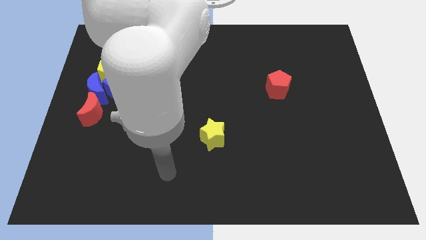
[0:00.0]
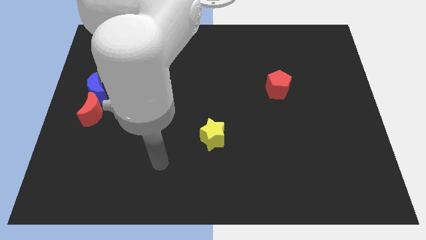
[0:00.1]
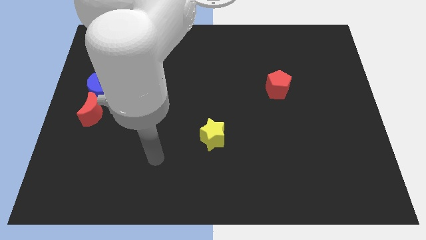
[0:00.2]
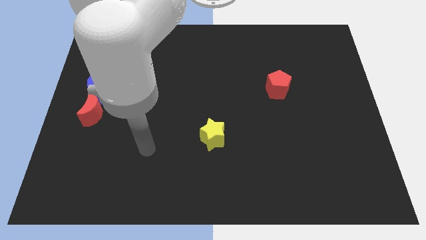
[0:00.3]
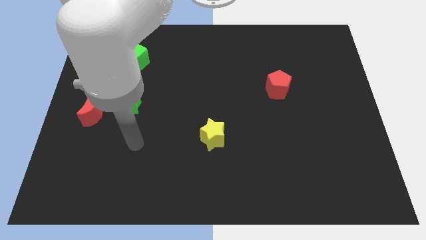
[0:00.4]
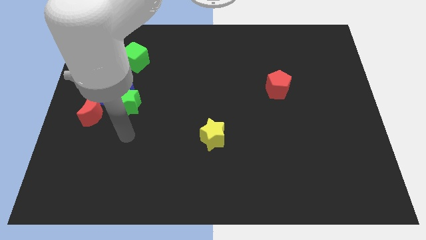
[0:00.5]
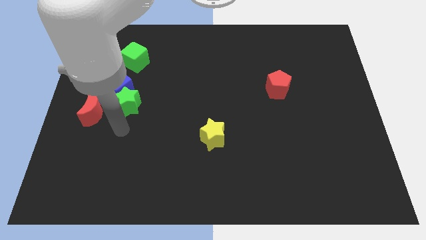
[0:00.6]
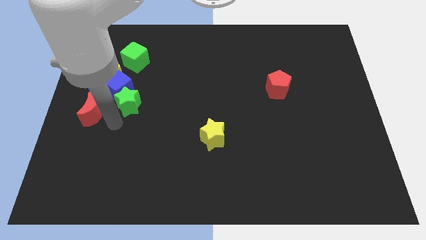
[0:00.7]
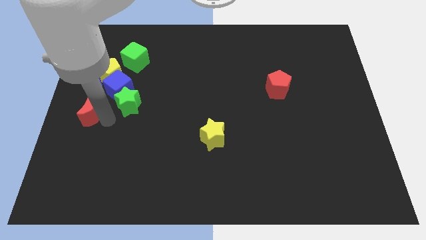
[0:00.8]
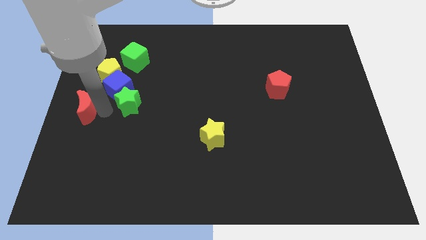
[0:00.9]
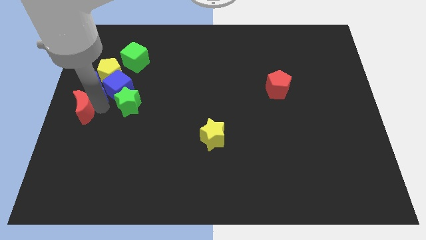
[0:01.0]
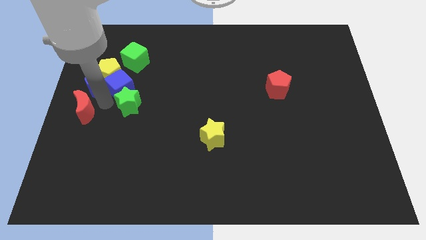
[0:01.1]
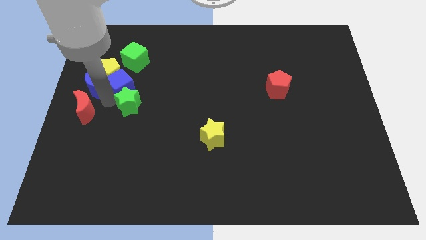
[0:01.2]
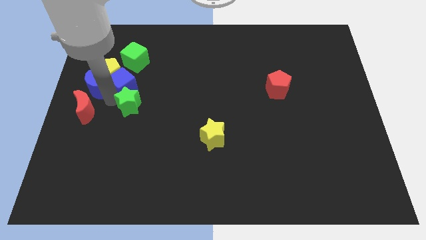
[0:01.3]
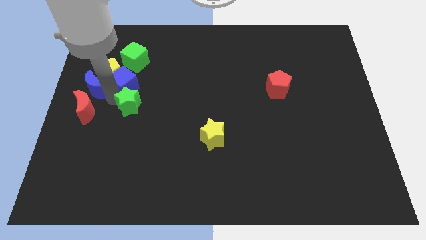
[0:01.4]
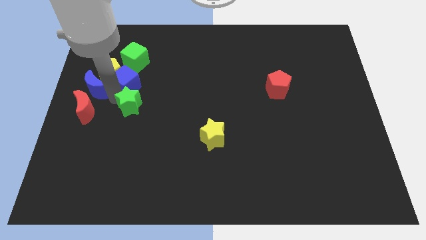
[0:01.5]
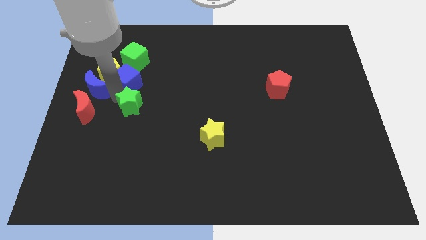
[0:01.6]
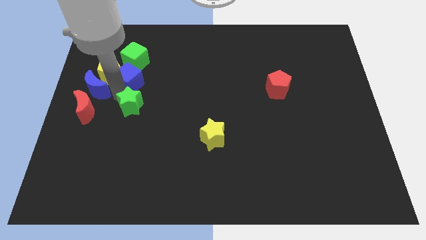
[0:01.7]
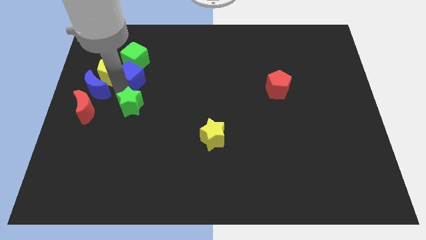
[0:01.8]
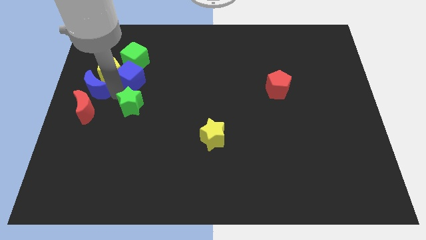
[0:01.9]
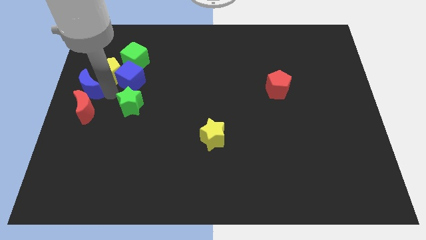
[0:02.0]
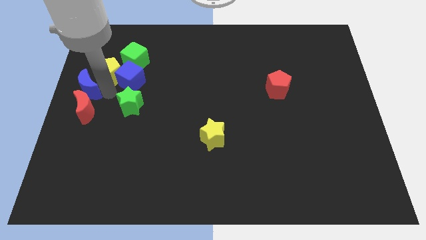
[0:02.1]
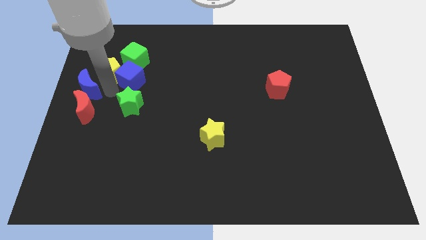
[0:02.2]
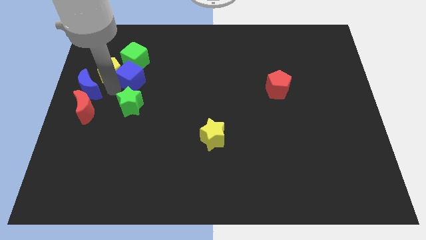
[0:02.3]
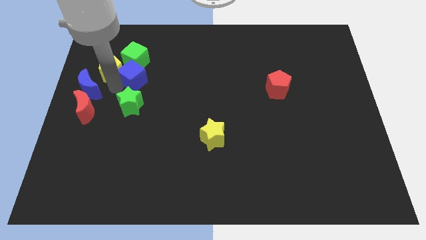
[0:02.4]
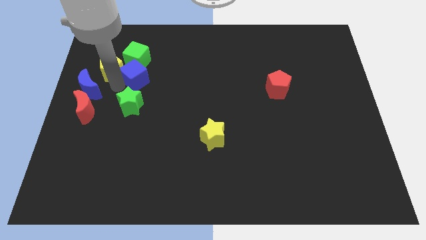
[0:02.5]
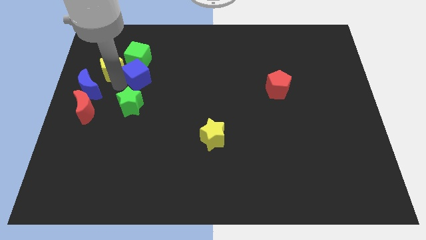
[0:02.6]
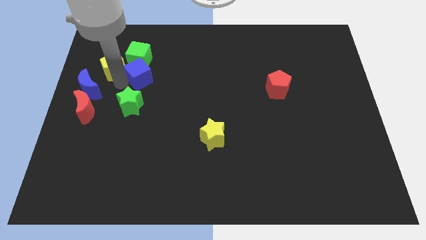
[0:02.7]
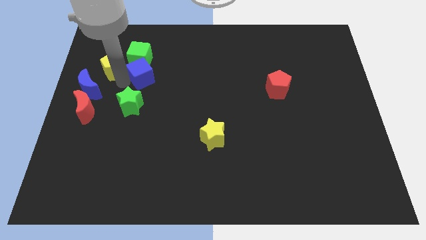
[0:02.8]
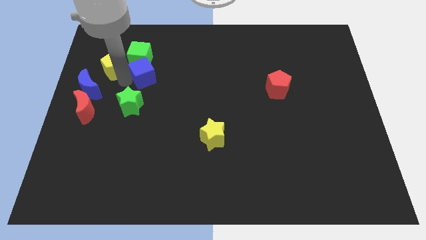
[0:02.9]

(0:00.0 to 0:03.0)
move the blue cube away from the group

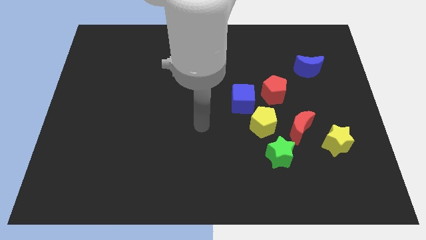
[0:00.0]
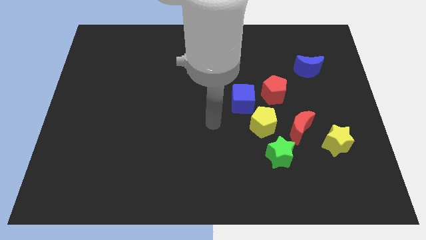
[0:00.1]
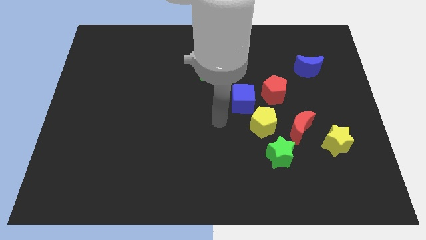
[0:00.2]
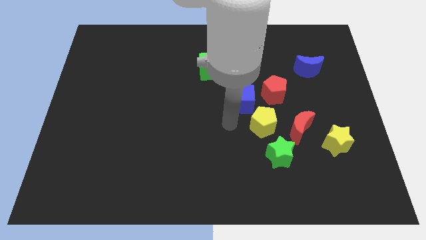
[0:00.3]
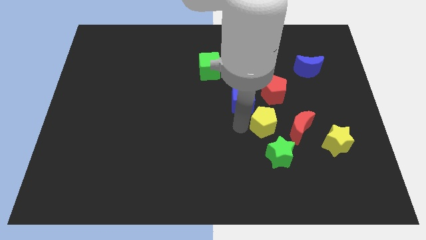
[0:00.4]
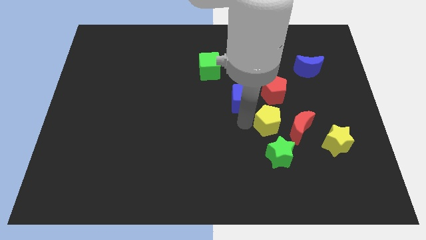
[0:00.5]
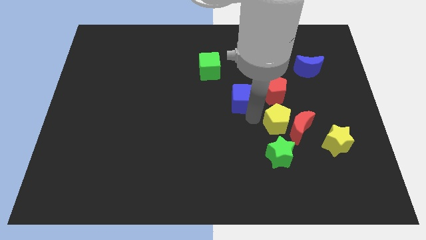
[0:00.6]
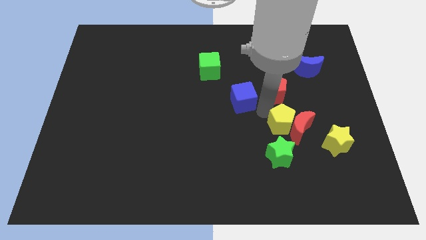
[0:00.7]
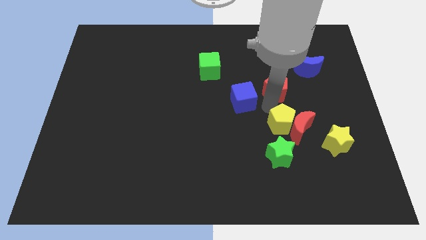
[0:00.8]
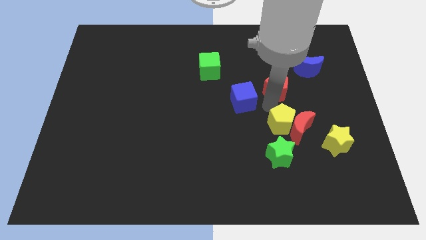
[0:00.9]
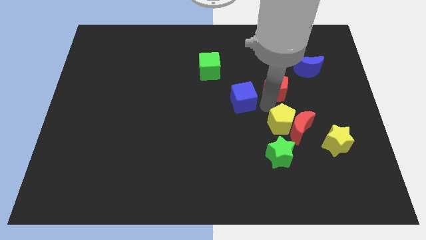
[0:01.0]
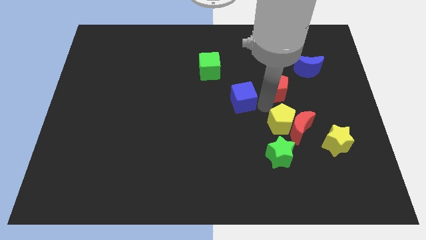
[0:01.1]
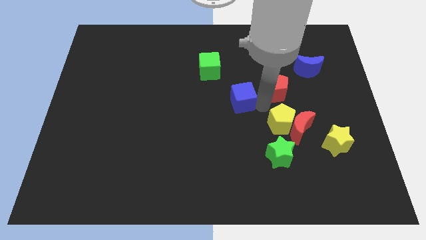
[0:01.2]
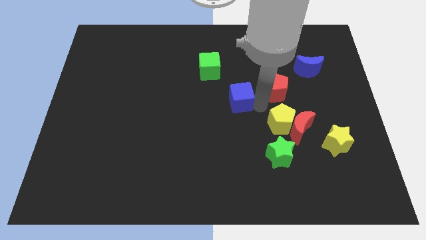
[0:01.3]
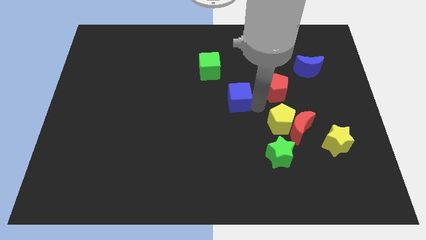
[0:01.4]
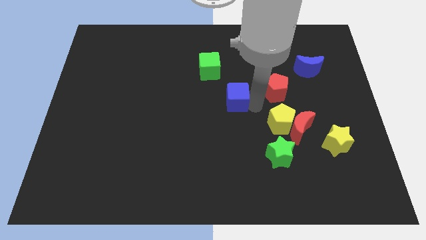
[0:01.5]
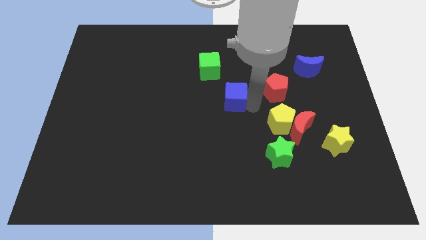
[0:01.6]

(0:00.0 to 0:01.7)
pull the blue cube apart from the yellow pentagon and red pentagon

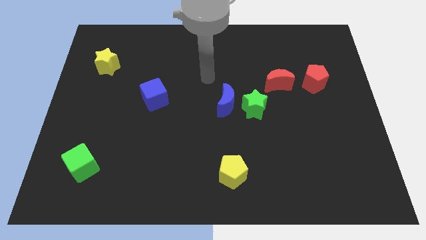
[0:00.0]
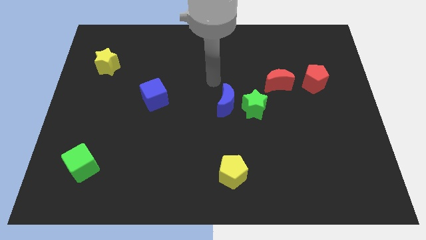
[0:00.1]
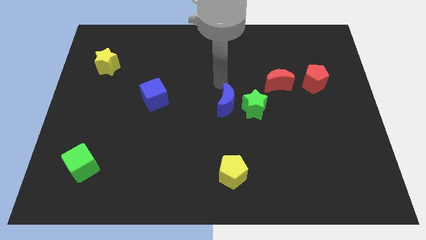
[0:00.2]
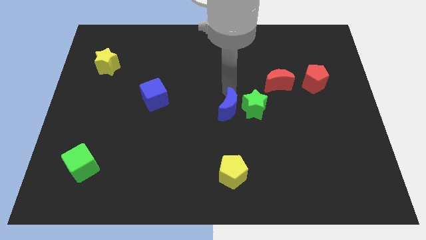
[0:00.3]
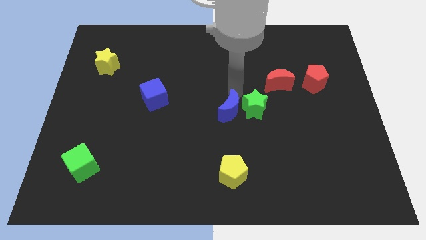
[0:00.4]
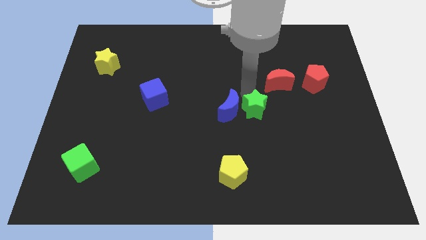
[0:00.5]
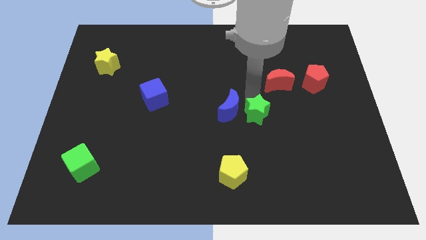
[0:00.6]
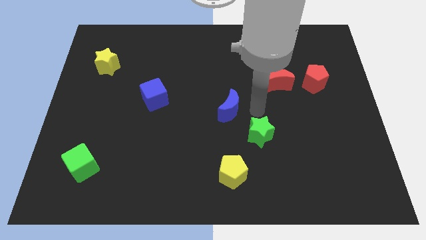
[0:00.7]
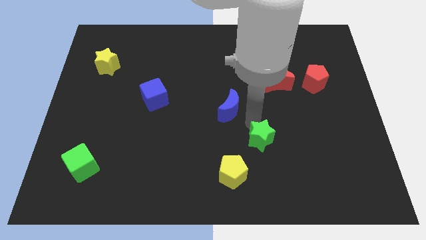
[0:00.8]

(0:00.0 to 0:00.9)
pull the blue moon apart from the green star

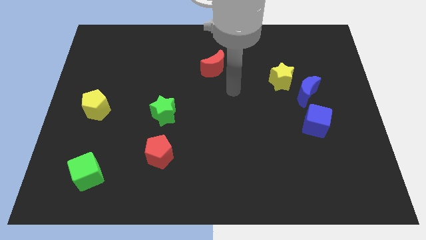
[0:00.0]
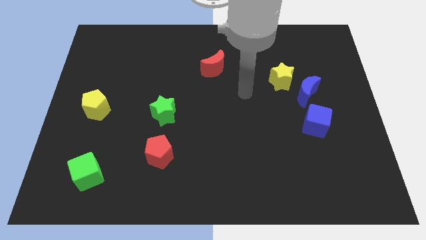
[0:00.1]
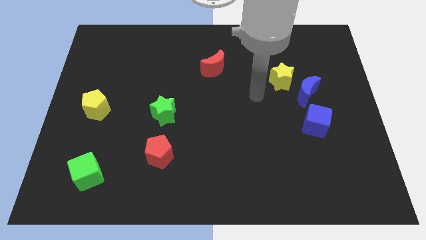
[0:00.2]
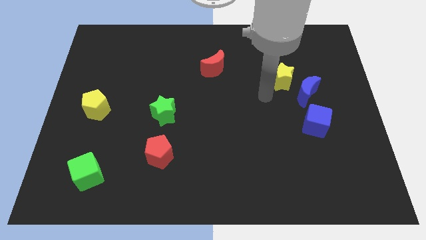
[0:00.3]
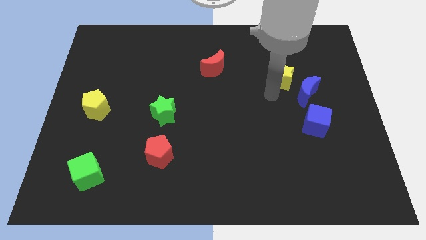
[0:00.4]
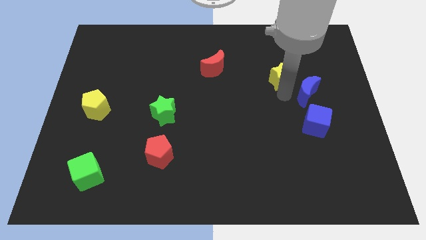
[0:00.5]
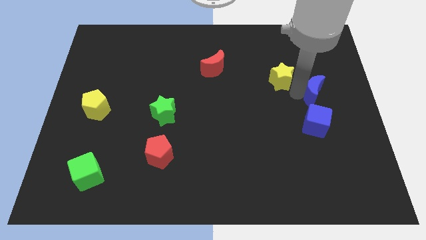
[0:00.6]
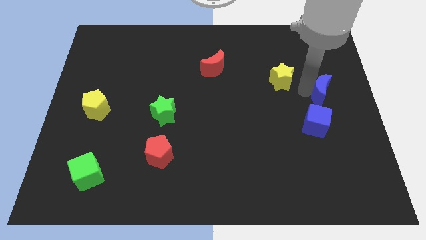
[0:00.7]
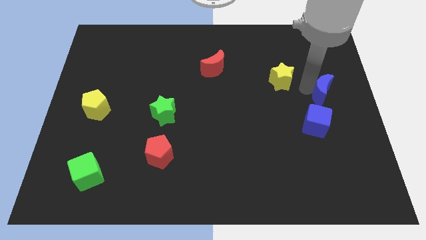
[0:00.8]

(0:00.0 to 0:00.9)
pull the yellow star apart from the blue moon

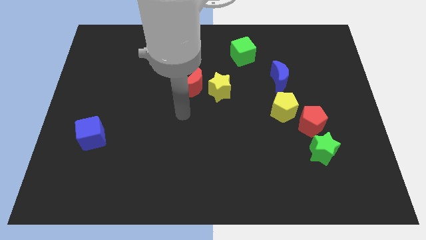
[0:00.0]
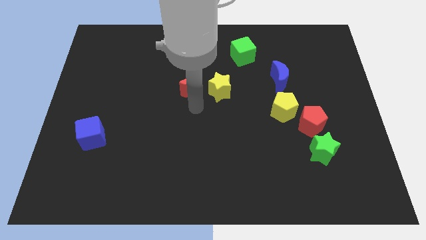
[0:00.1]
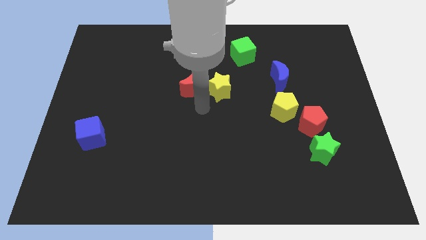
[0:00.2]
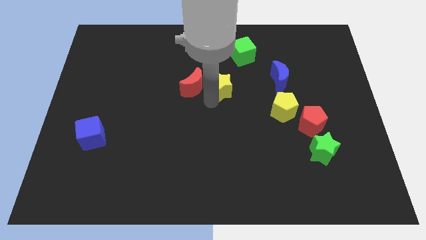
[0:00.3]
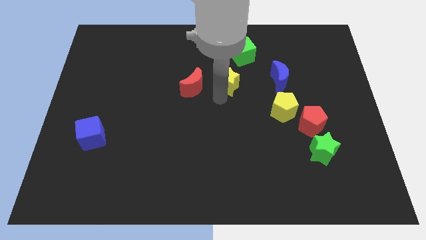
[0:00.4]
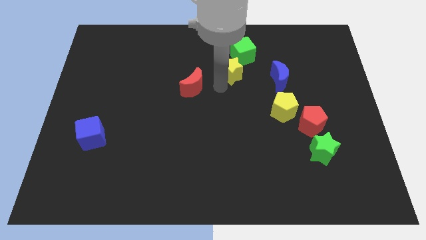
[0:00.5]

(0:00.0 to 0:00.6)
pull the red moon apart from the yellow star

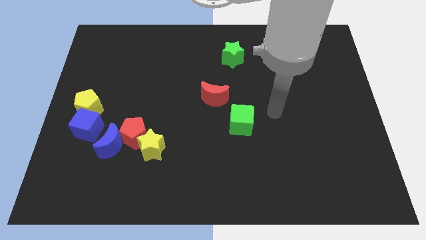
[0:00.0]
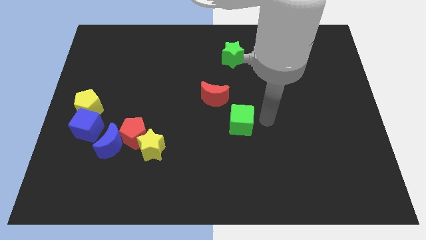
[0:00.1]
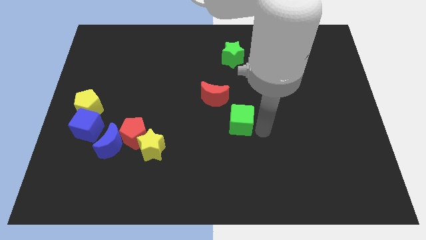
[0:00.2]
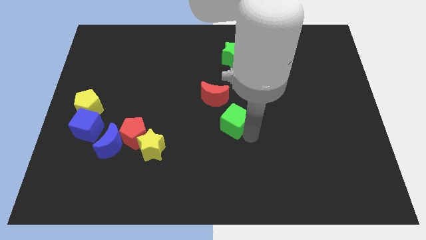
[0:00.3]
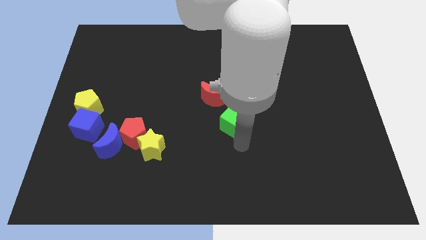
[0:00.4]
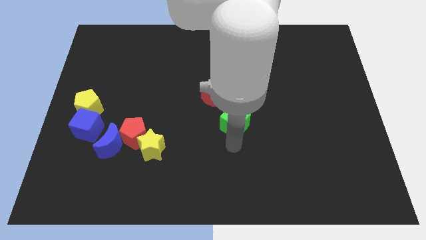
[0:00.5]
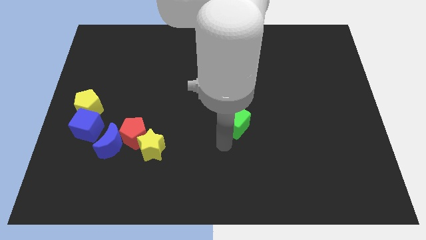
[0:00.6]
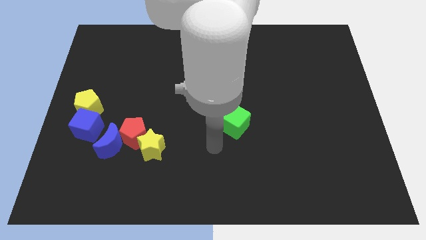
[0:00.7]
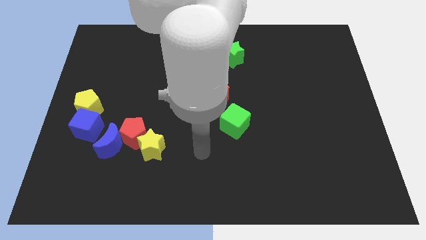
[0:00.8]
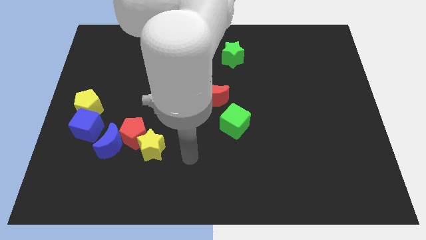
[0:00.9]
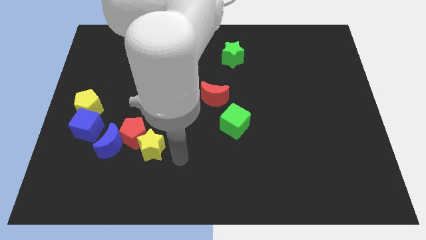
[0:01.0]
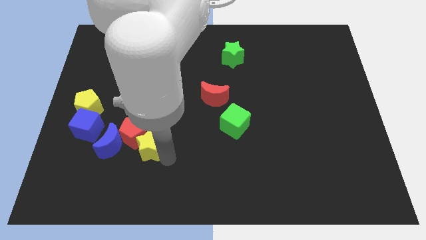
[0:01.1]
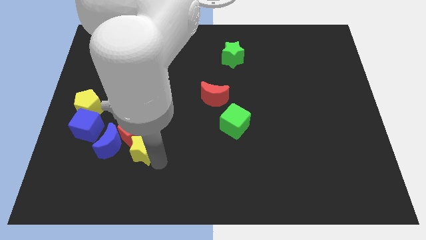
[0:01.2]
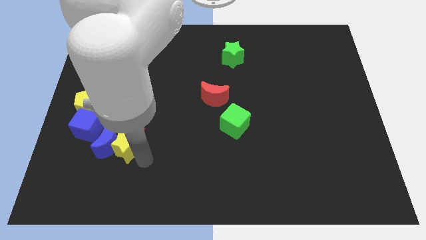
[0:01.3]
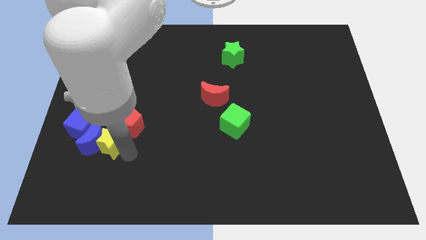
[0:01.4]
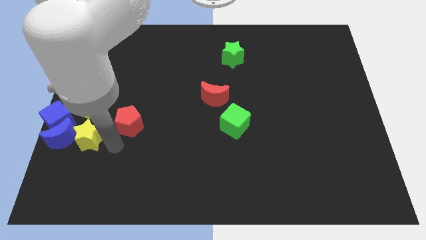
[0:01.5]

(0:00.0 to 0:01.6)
separate the red pentagon from the blue moon and yellow star

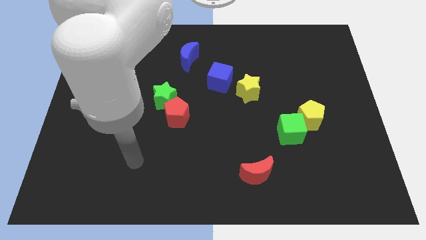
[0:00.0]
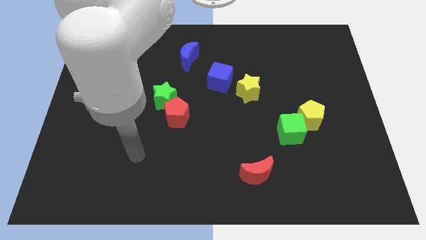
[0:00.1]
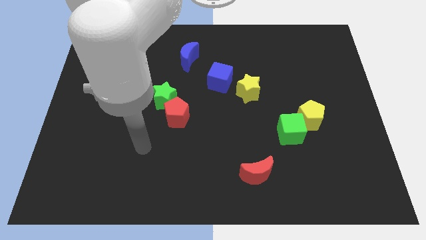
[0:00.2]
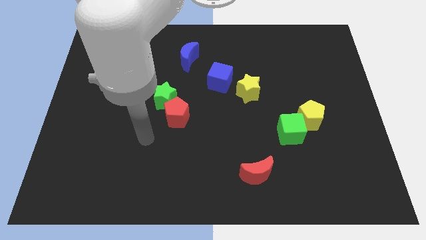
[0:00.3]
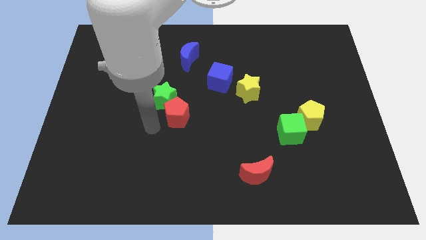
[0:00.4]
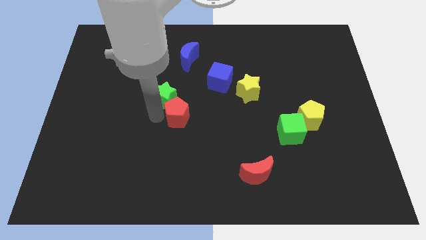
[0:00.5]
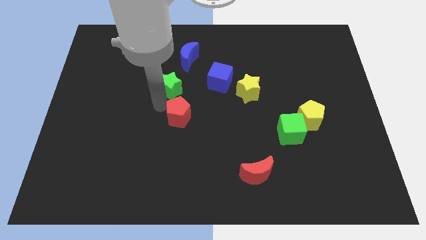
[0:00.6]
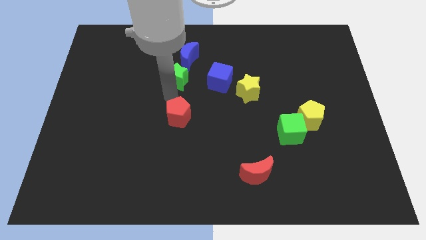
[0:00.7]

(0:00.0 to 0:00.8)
separate the red pentagon from the green star

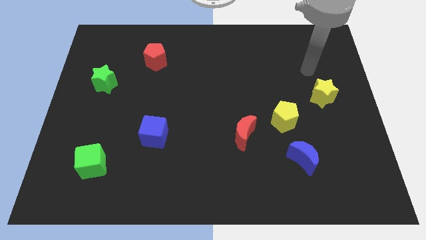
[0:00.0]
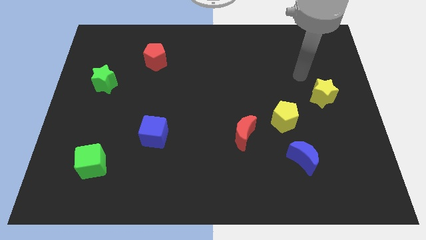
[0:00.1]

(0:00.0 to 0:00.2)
pull the red moon apart from the yellow pentagon
